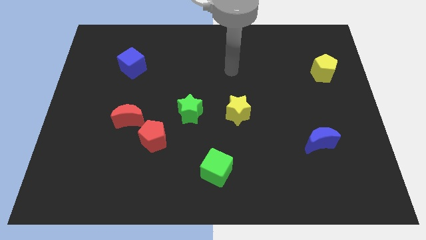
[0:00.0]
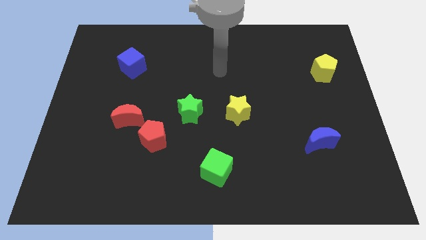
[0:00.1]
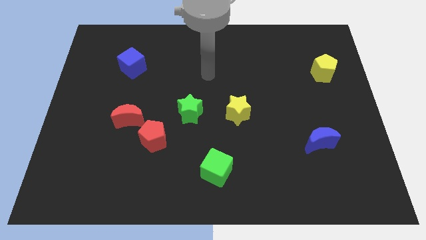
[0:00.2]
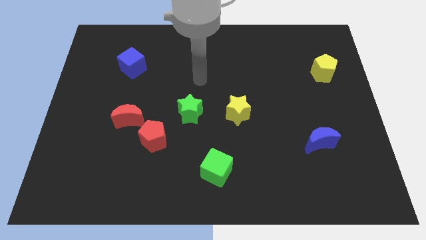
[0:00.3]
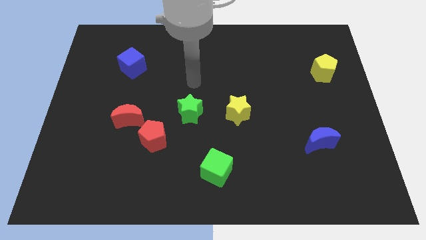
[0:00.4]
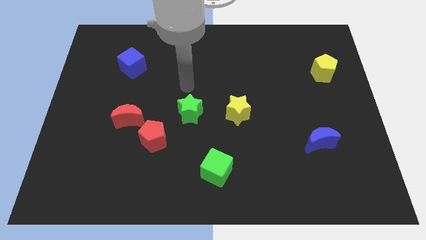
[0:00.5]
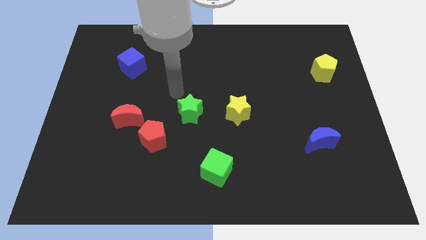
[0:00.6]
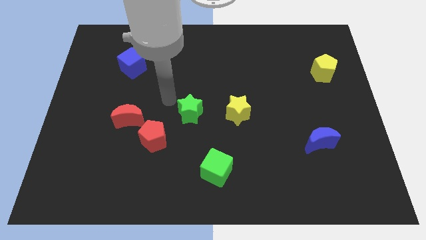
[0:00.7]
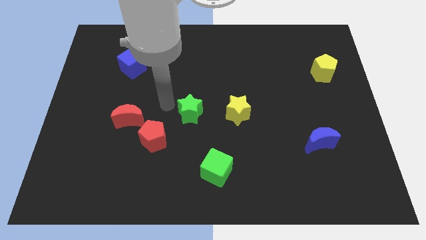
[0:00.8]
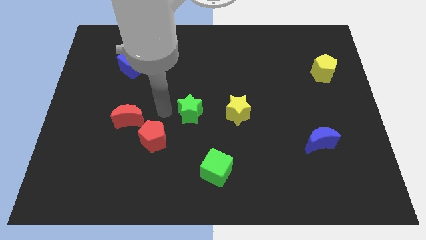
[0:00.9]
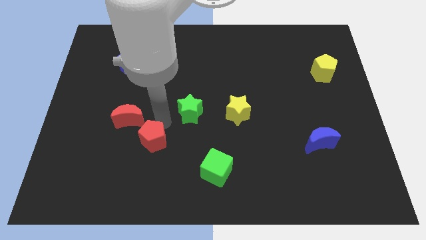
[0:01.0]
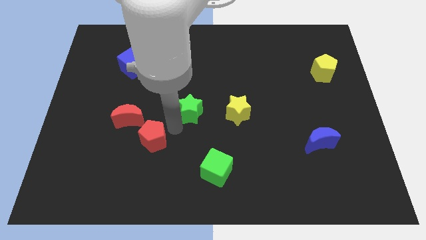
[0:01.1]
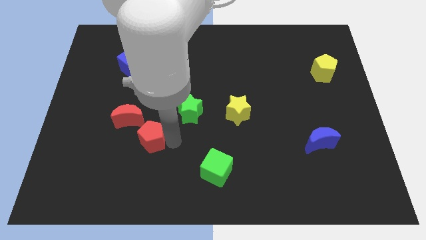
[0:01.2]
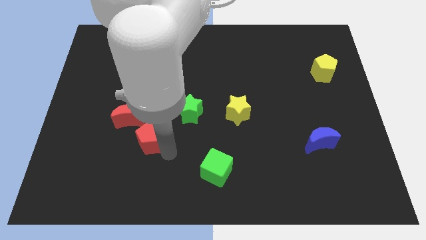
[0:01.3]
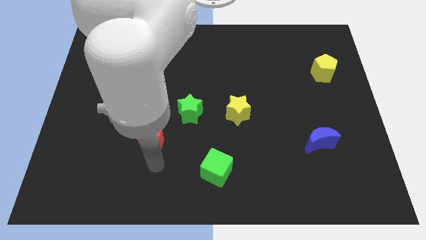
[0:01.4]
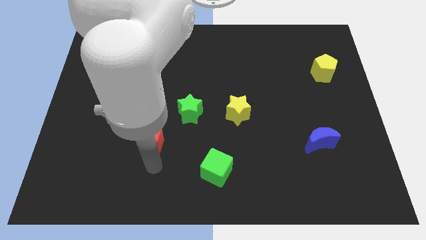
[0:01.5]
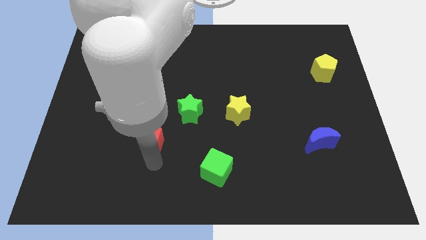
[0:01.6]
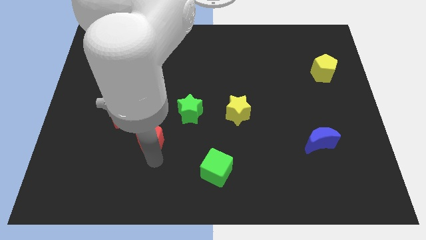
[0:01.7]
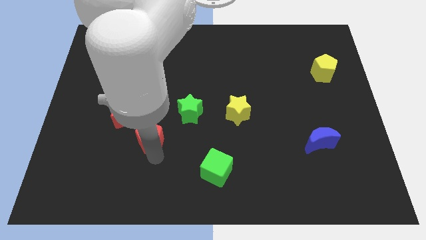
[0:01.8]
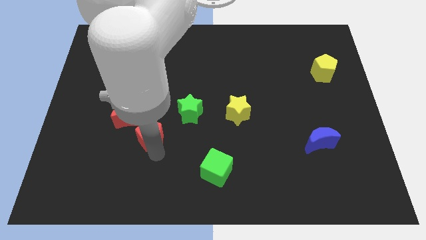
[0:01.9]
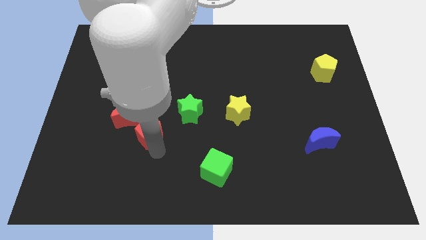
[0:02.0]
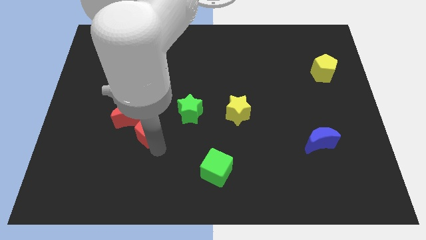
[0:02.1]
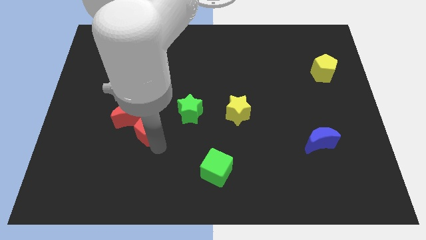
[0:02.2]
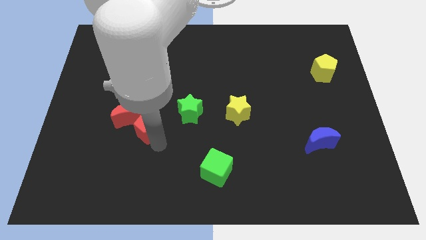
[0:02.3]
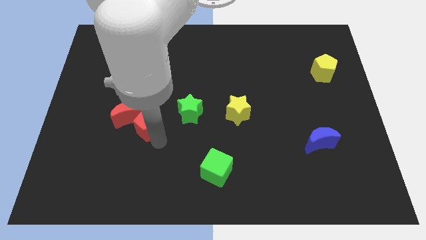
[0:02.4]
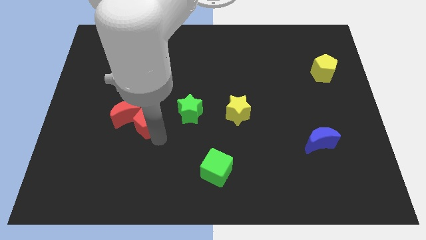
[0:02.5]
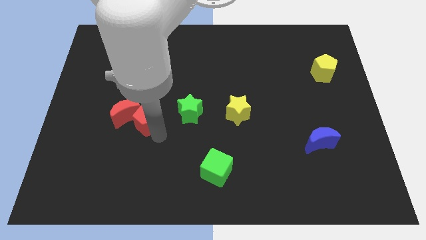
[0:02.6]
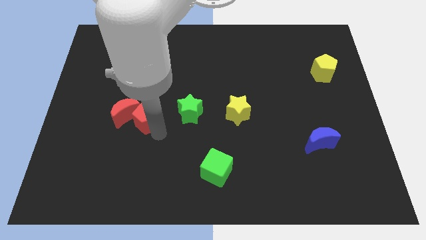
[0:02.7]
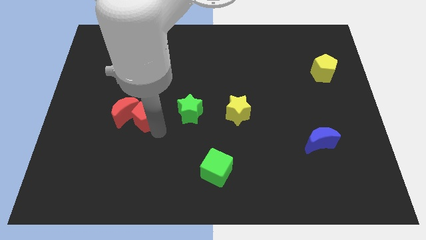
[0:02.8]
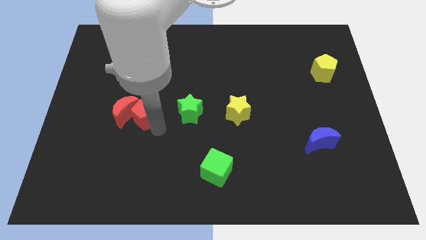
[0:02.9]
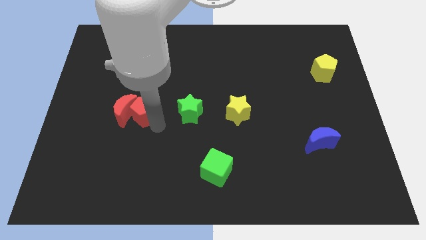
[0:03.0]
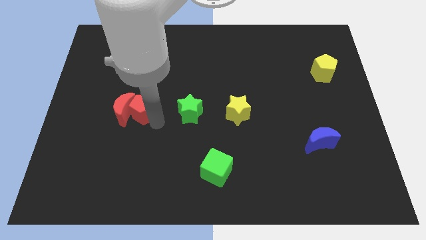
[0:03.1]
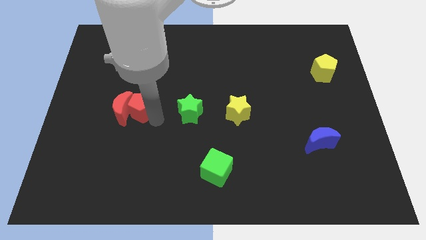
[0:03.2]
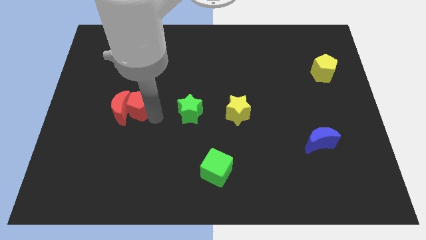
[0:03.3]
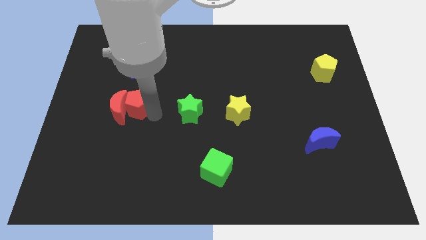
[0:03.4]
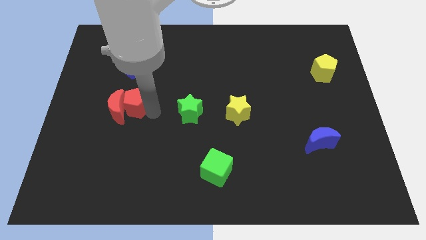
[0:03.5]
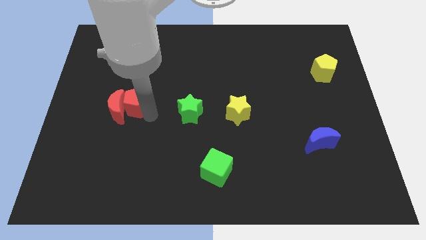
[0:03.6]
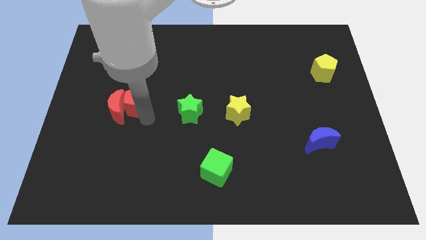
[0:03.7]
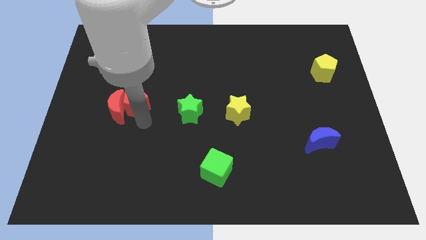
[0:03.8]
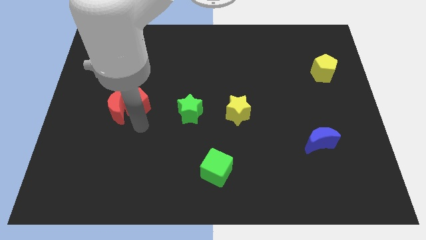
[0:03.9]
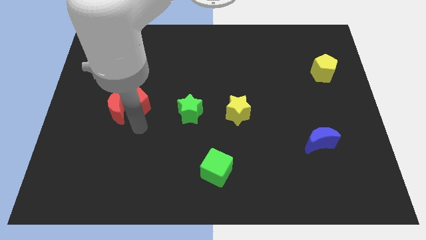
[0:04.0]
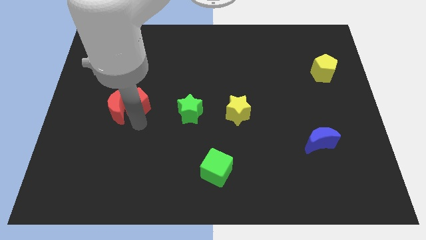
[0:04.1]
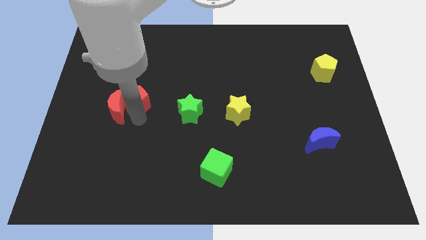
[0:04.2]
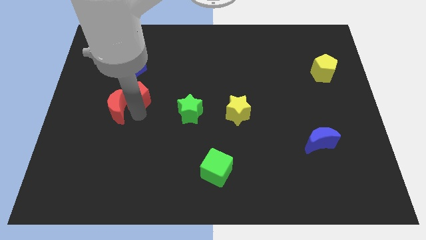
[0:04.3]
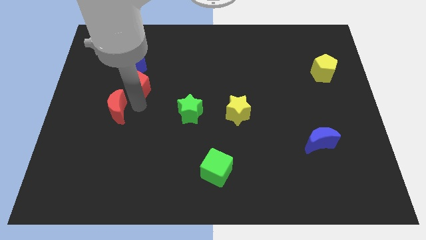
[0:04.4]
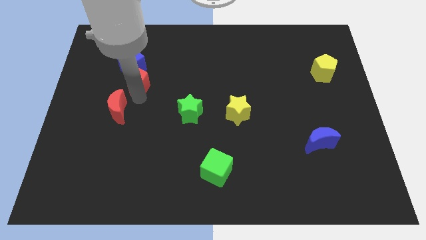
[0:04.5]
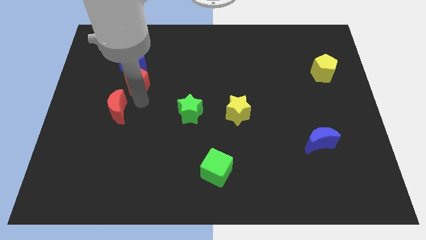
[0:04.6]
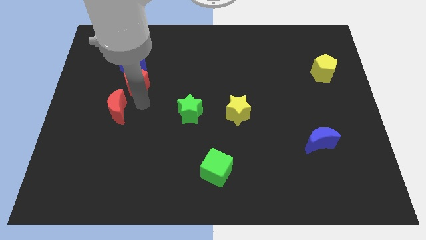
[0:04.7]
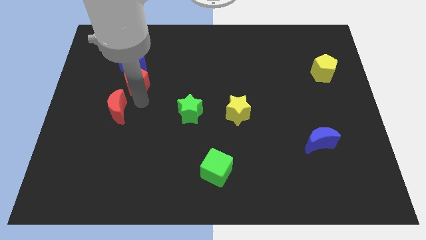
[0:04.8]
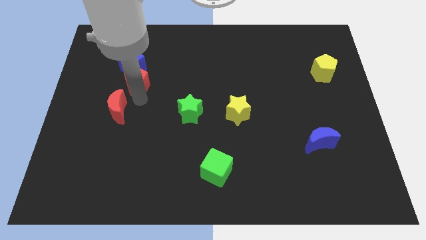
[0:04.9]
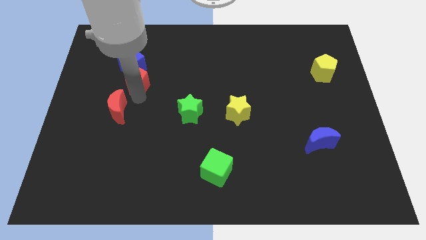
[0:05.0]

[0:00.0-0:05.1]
slide the red pentagon to the blue cube

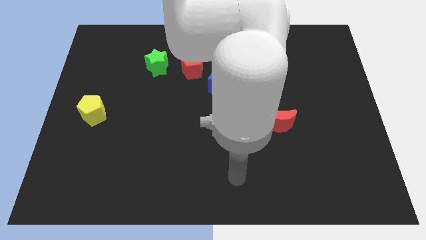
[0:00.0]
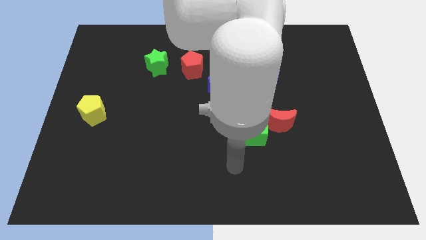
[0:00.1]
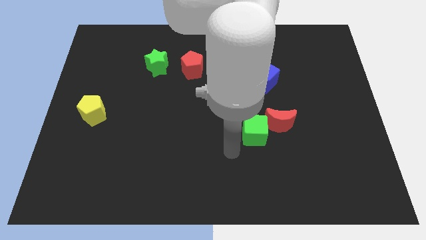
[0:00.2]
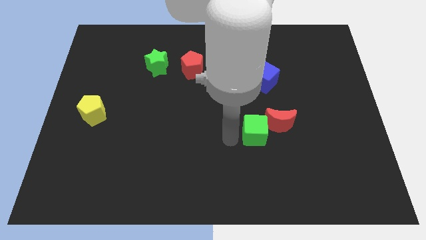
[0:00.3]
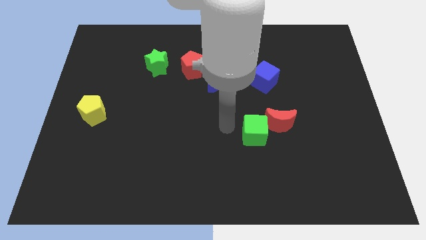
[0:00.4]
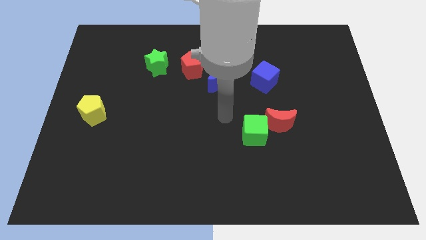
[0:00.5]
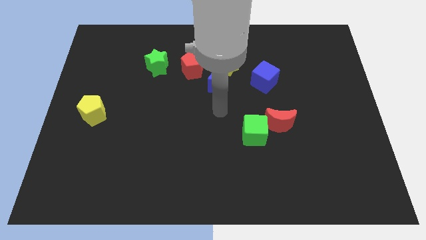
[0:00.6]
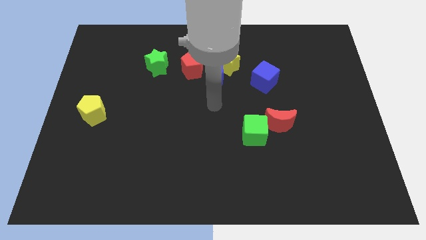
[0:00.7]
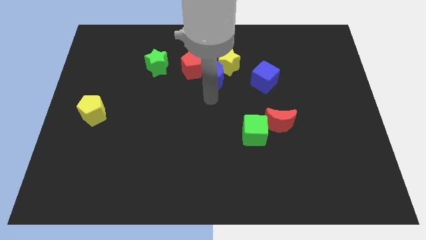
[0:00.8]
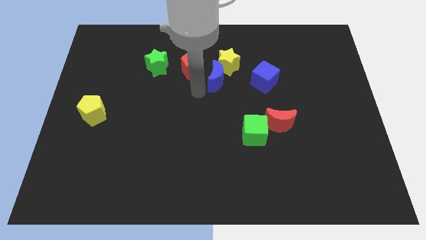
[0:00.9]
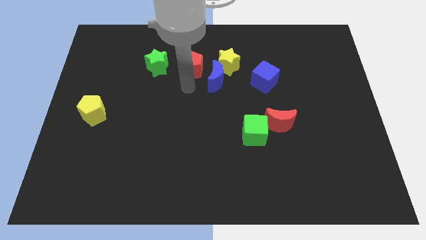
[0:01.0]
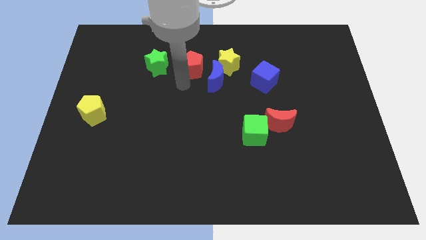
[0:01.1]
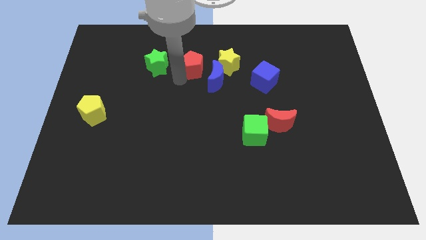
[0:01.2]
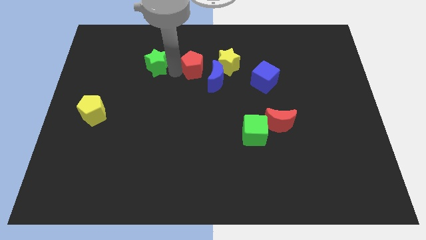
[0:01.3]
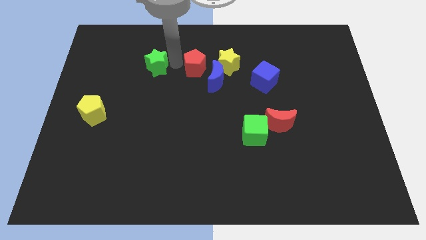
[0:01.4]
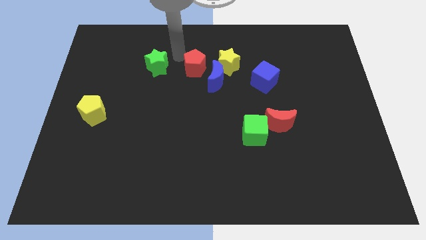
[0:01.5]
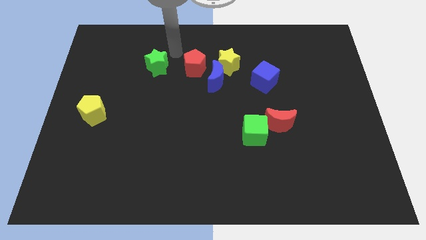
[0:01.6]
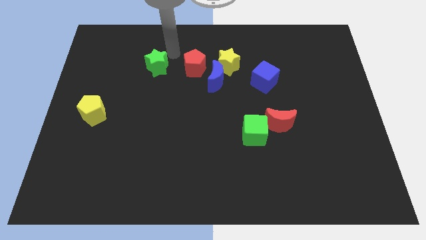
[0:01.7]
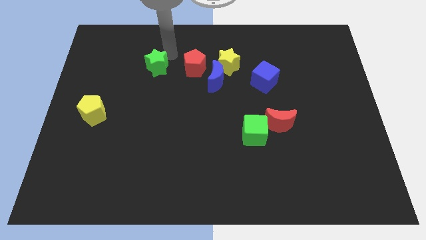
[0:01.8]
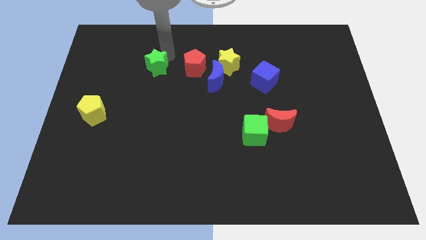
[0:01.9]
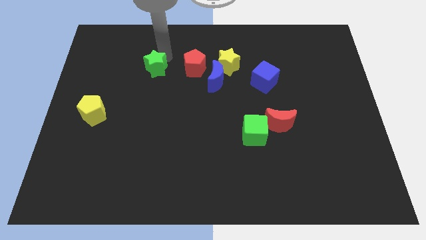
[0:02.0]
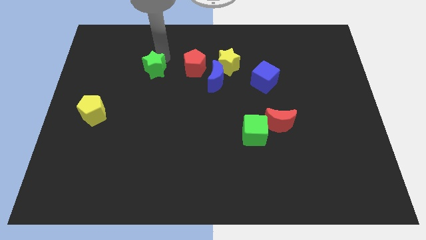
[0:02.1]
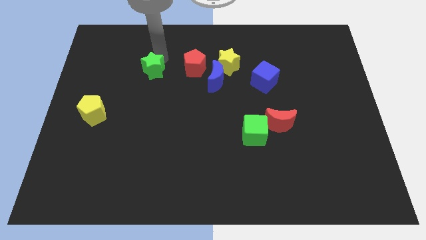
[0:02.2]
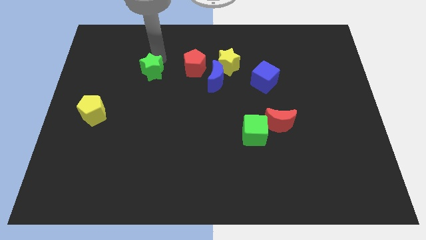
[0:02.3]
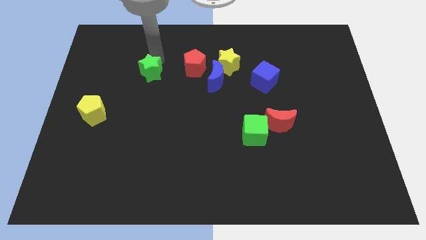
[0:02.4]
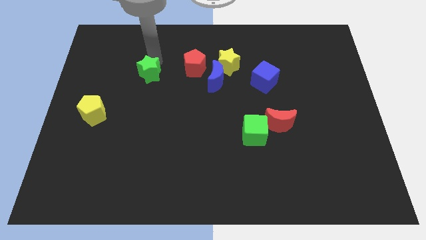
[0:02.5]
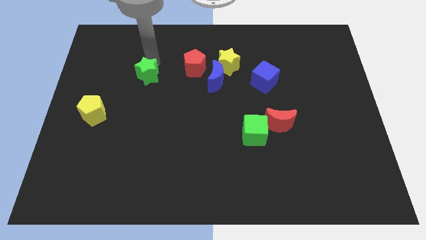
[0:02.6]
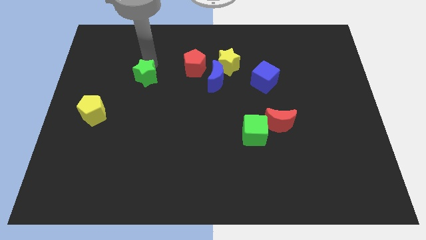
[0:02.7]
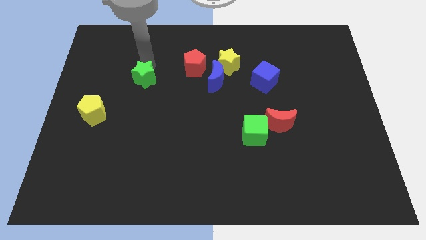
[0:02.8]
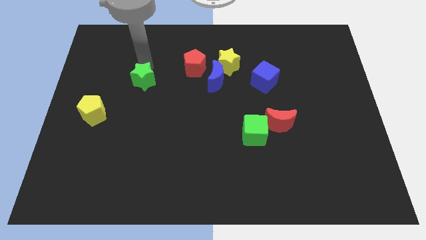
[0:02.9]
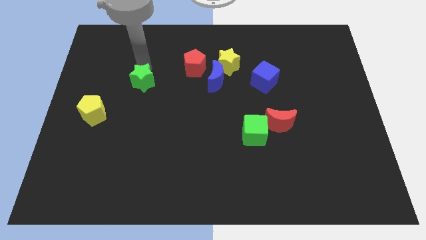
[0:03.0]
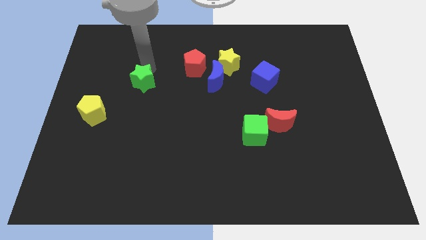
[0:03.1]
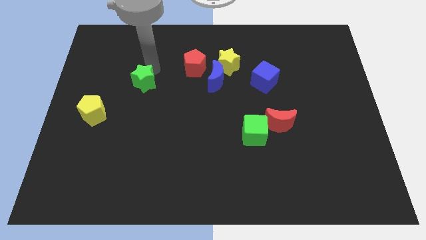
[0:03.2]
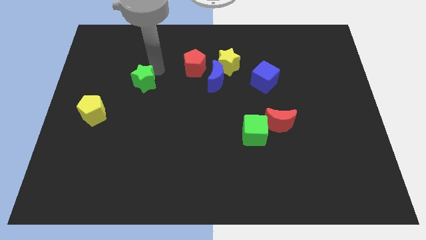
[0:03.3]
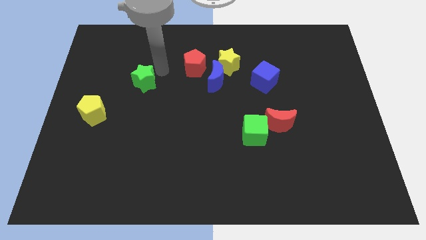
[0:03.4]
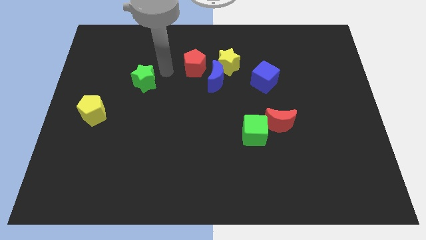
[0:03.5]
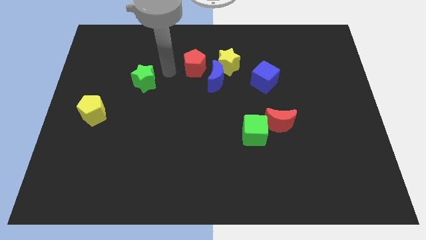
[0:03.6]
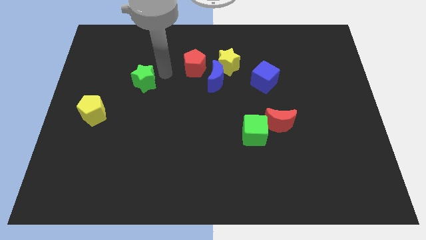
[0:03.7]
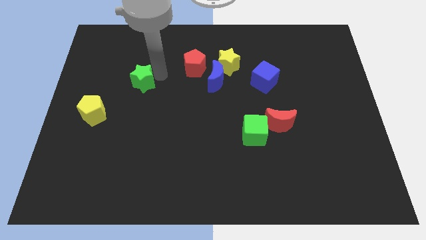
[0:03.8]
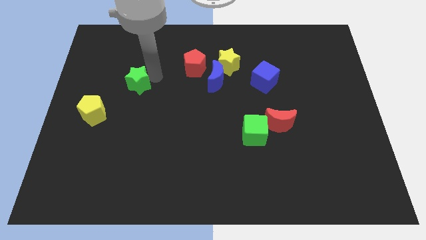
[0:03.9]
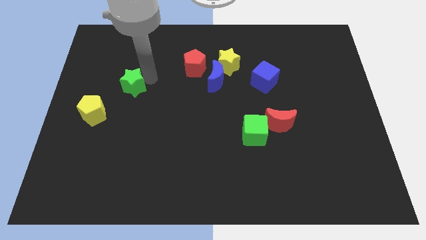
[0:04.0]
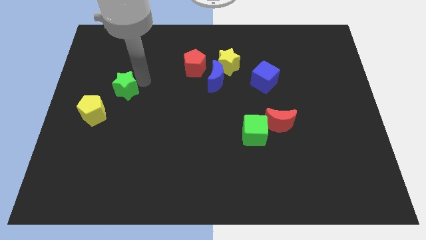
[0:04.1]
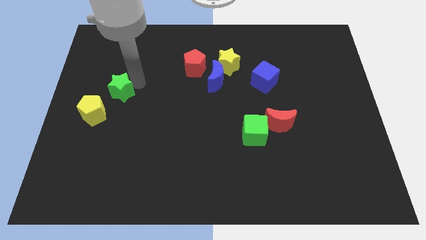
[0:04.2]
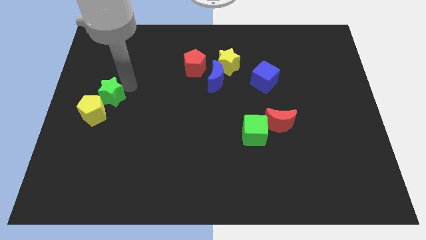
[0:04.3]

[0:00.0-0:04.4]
move the green star close to the yellow pentagon
